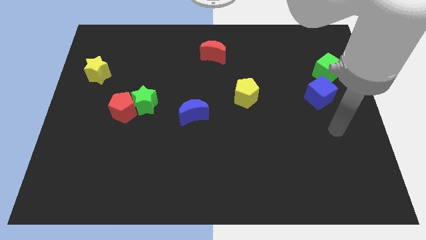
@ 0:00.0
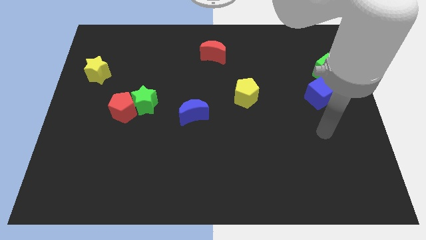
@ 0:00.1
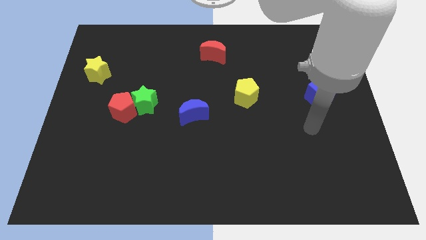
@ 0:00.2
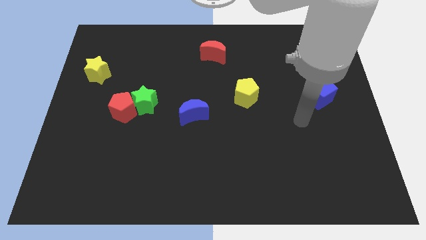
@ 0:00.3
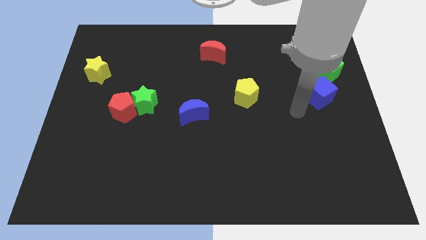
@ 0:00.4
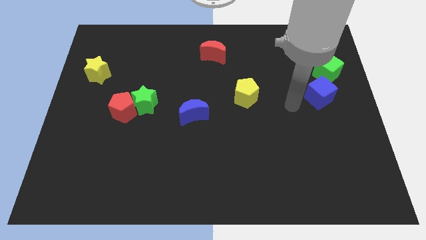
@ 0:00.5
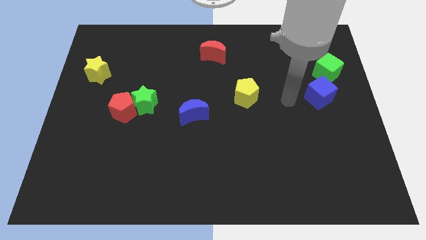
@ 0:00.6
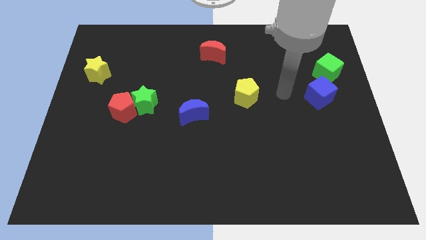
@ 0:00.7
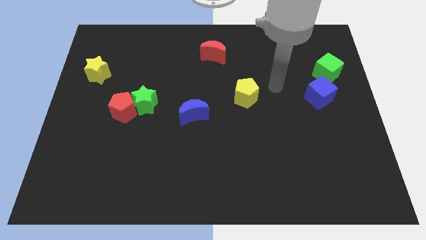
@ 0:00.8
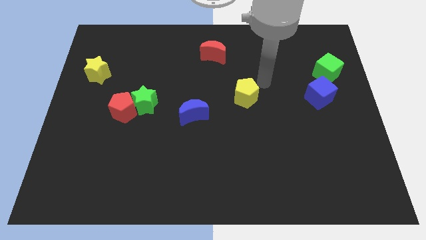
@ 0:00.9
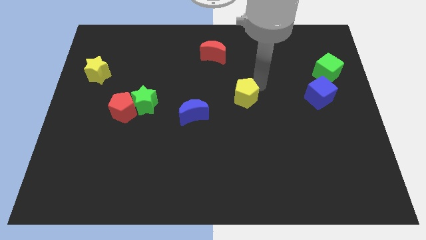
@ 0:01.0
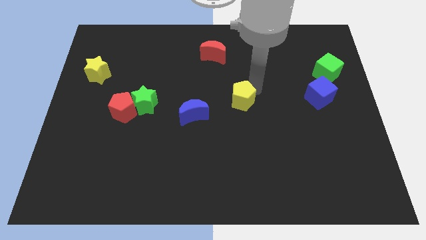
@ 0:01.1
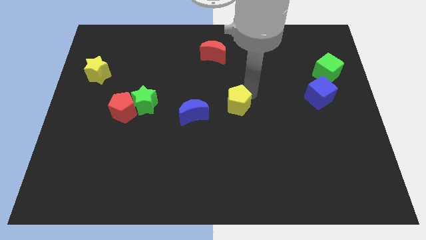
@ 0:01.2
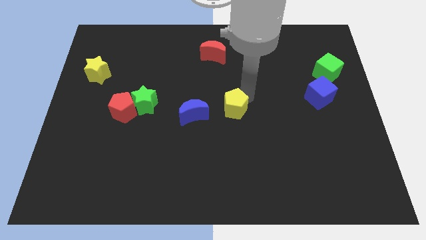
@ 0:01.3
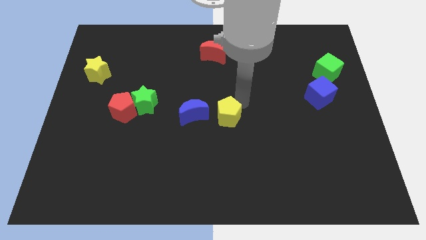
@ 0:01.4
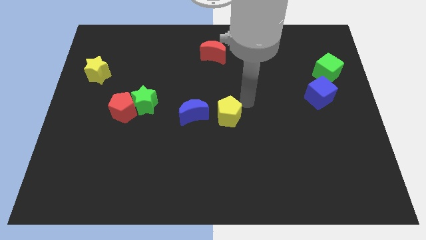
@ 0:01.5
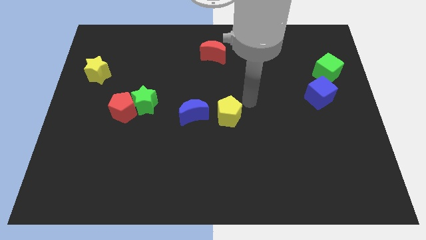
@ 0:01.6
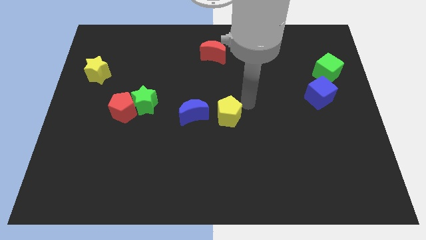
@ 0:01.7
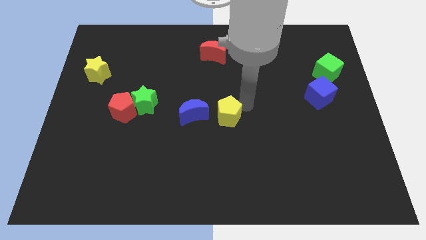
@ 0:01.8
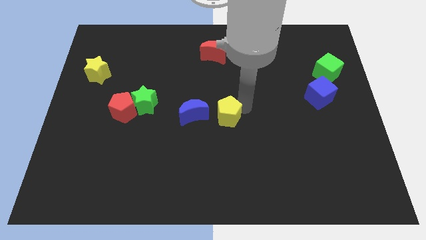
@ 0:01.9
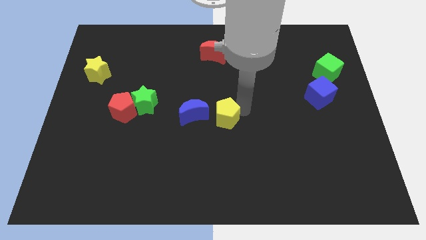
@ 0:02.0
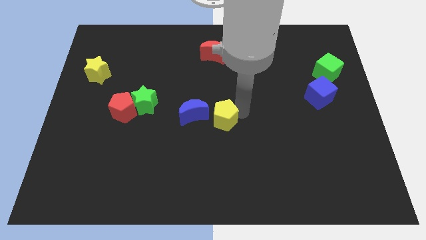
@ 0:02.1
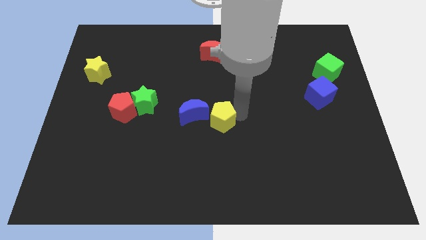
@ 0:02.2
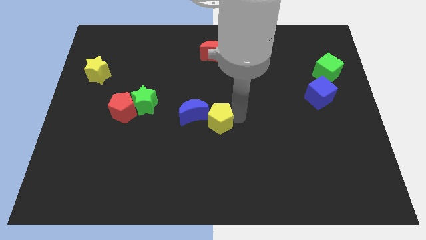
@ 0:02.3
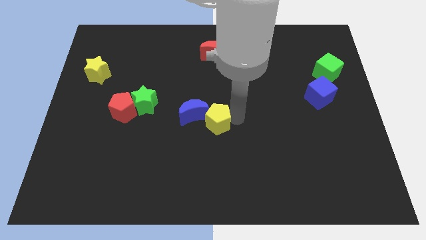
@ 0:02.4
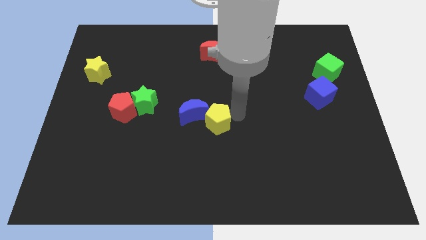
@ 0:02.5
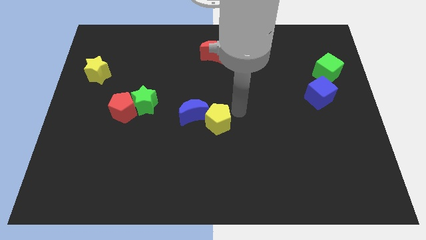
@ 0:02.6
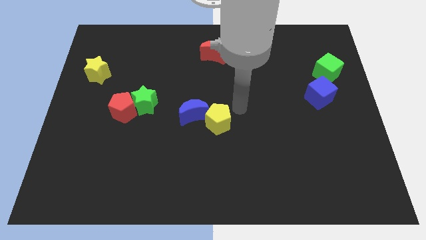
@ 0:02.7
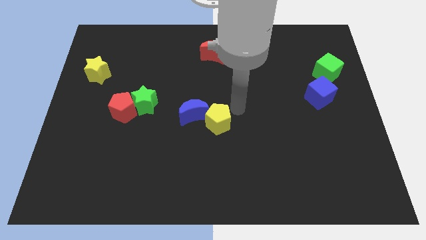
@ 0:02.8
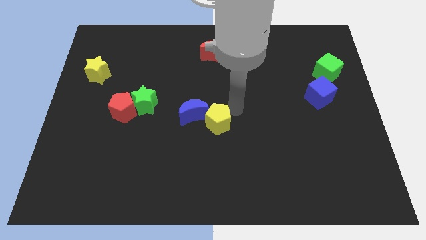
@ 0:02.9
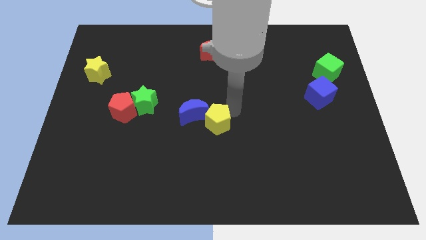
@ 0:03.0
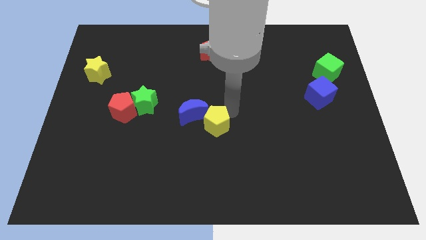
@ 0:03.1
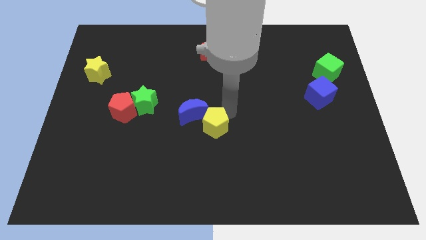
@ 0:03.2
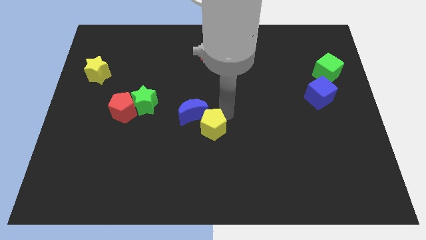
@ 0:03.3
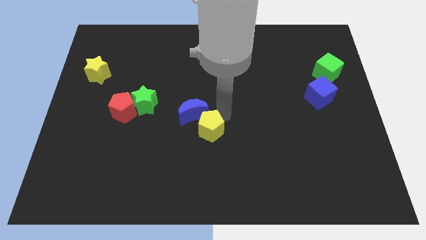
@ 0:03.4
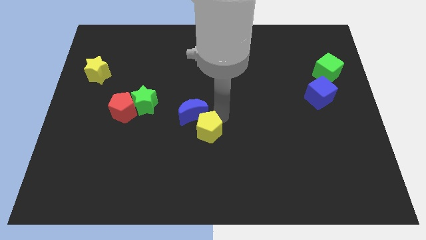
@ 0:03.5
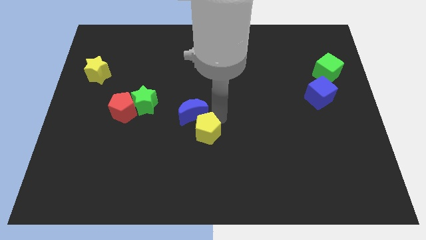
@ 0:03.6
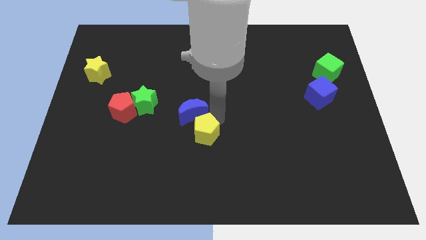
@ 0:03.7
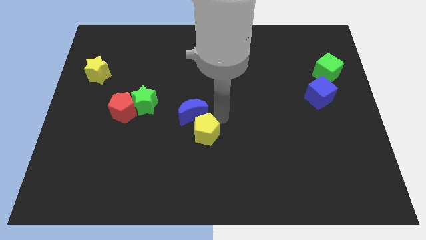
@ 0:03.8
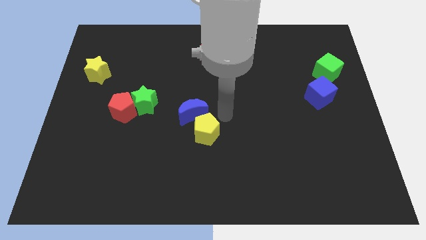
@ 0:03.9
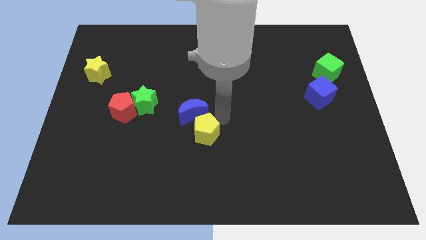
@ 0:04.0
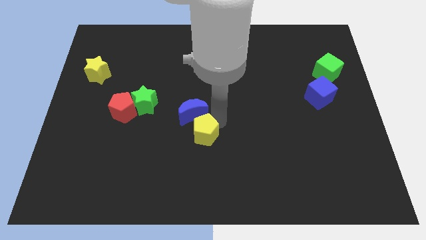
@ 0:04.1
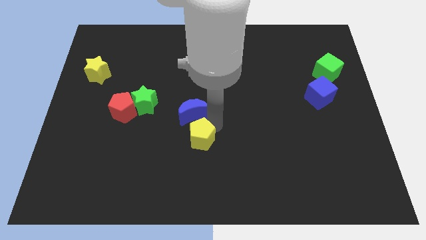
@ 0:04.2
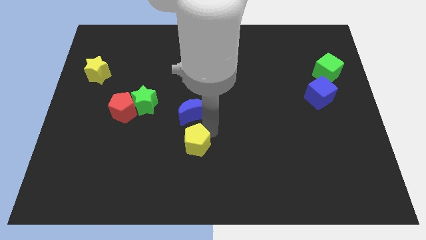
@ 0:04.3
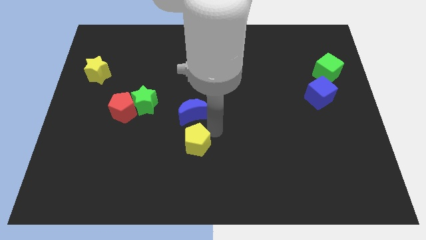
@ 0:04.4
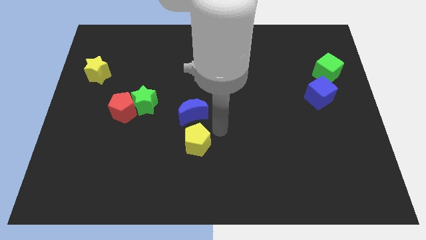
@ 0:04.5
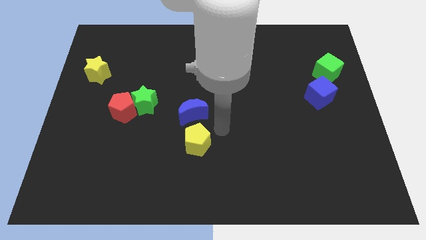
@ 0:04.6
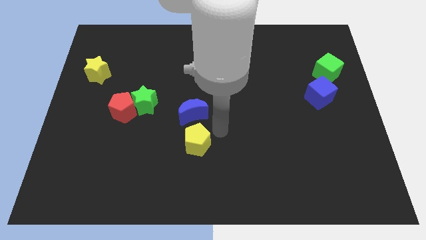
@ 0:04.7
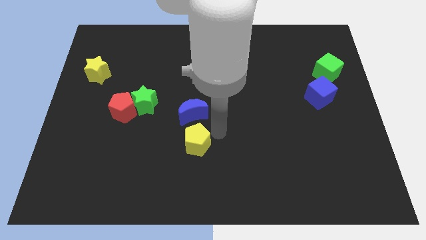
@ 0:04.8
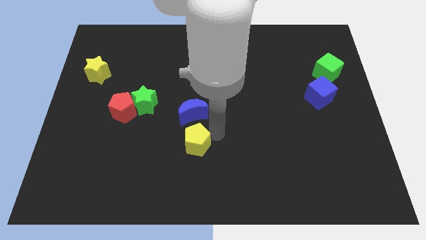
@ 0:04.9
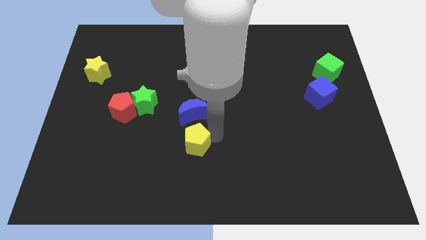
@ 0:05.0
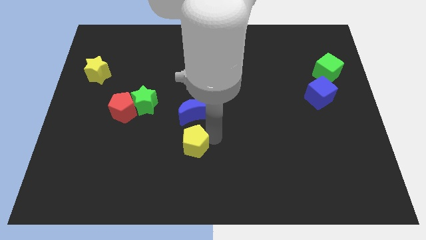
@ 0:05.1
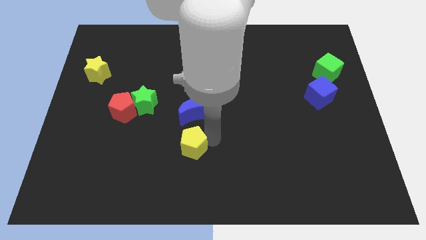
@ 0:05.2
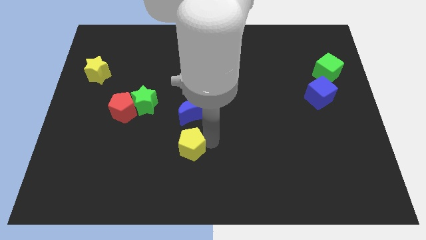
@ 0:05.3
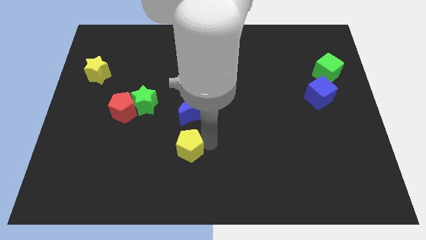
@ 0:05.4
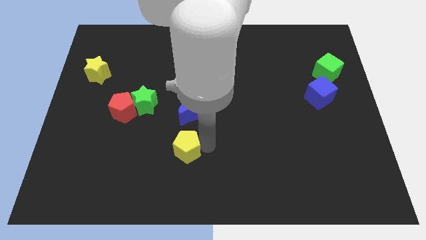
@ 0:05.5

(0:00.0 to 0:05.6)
push the yellow pentagon downwards and then left

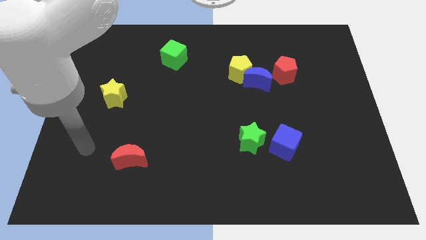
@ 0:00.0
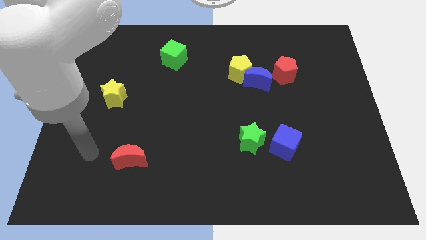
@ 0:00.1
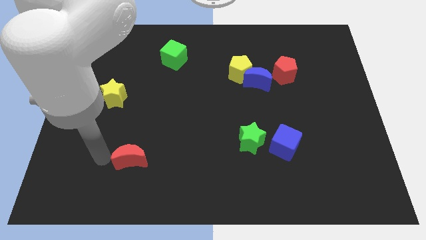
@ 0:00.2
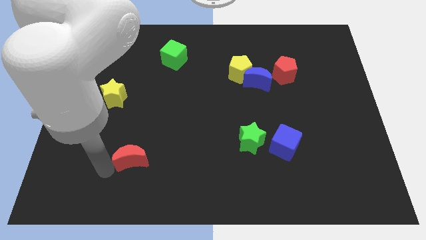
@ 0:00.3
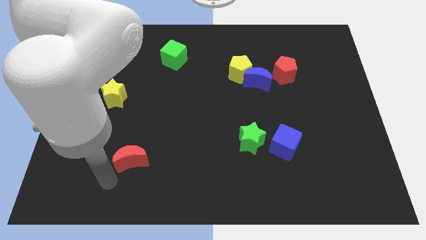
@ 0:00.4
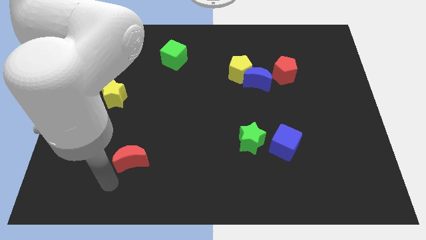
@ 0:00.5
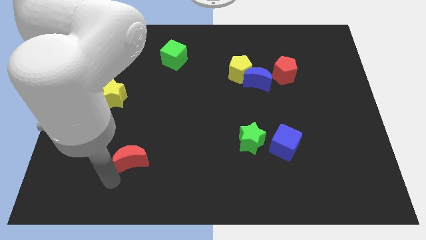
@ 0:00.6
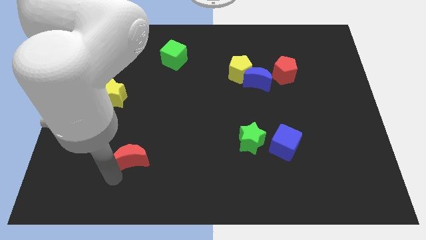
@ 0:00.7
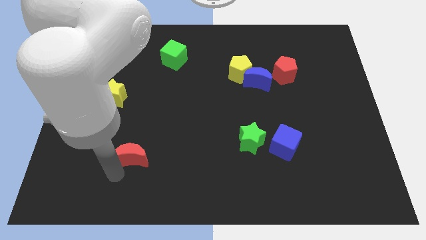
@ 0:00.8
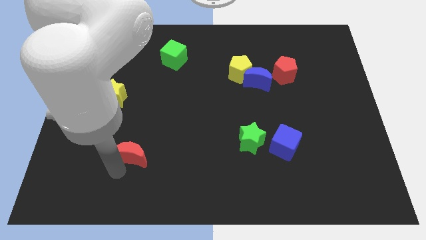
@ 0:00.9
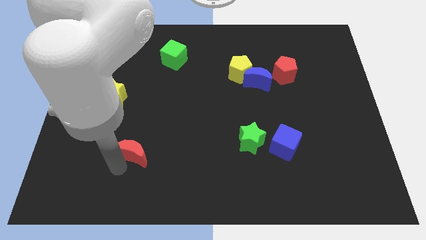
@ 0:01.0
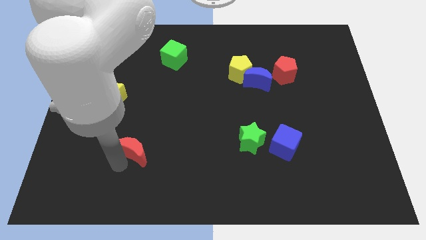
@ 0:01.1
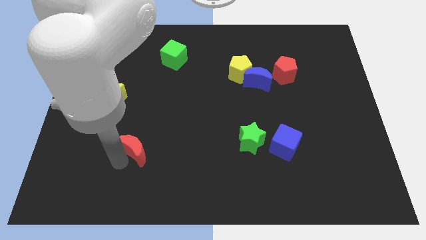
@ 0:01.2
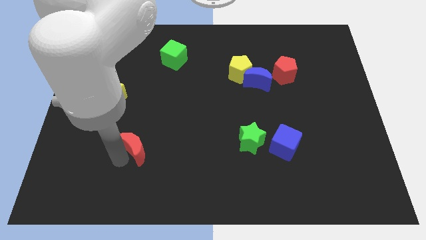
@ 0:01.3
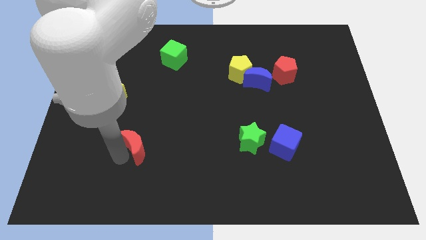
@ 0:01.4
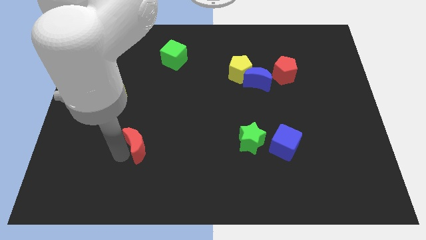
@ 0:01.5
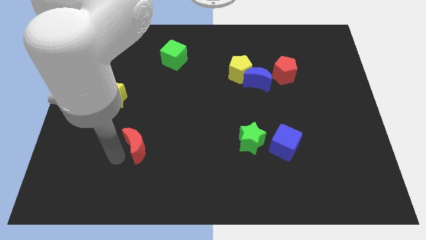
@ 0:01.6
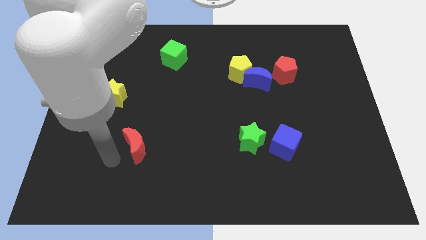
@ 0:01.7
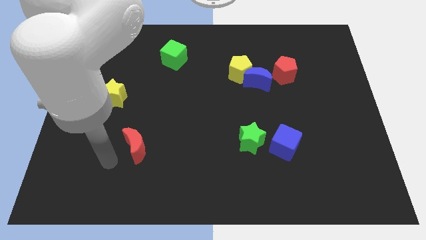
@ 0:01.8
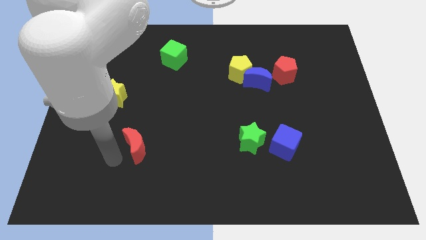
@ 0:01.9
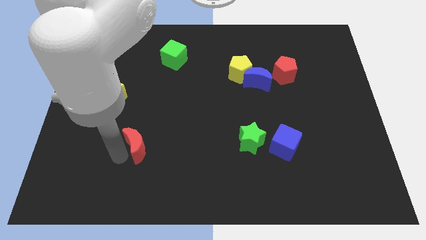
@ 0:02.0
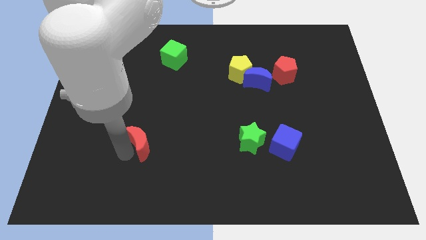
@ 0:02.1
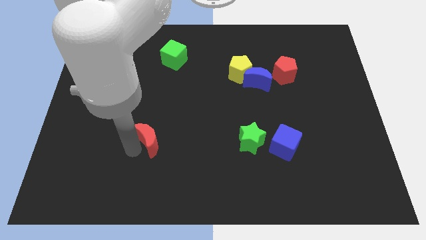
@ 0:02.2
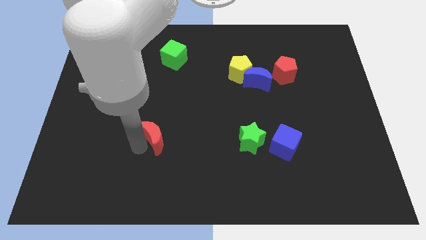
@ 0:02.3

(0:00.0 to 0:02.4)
move the red moon diagonally upwards and right a bit
